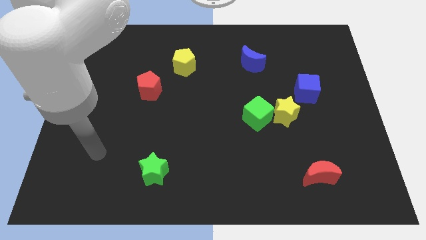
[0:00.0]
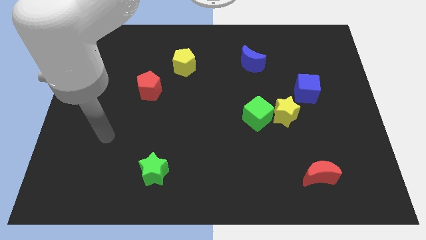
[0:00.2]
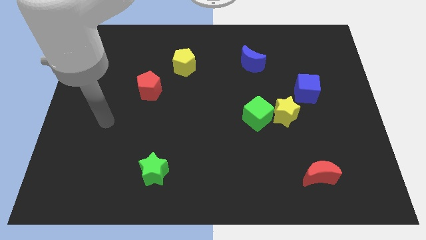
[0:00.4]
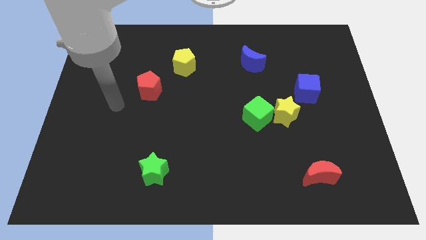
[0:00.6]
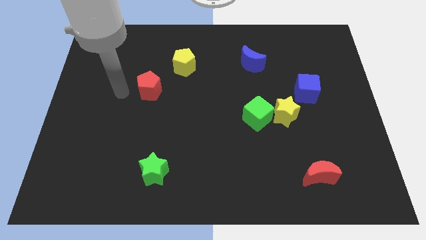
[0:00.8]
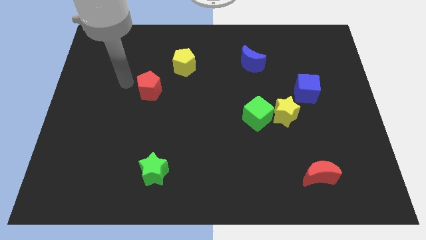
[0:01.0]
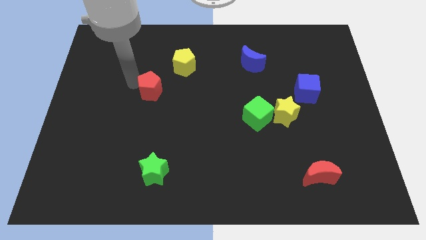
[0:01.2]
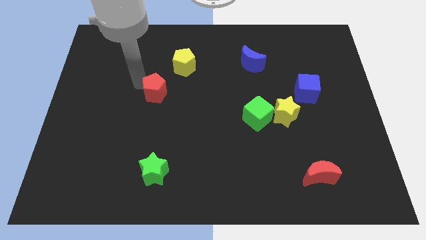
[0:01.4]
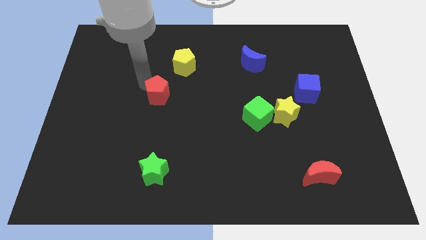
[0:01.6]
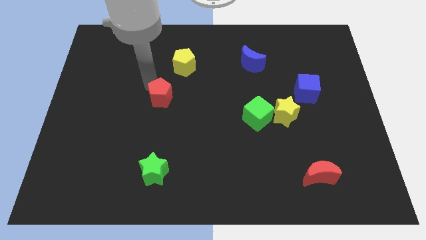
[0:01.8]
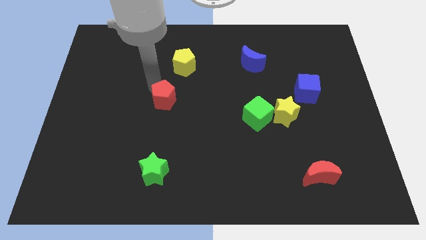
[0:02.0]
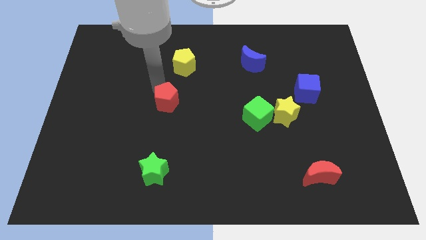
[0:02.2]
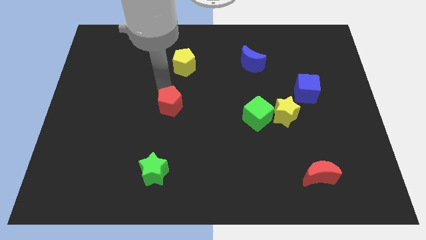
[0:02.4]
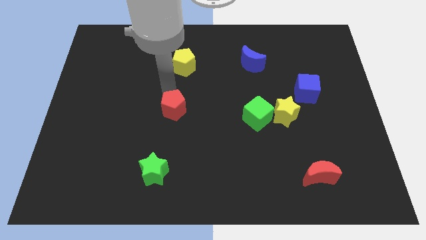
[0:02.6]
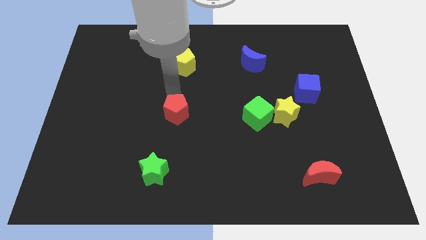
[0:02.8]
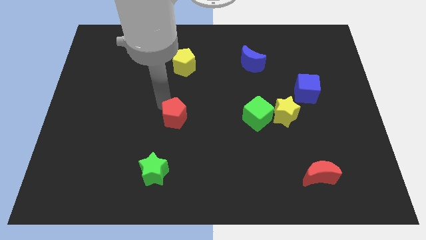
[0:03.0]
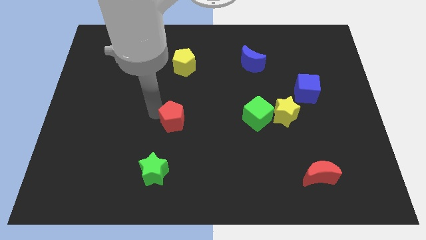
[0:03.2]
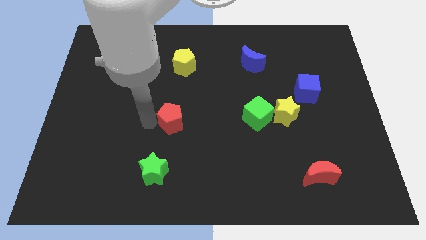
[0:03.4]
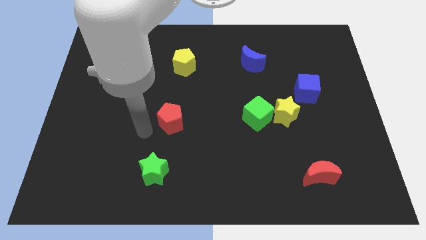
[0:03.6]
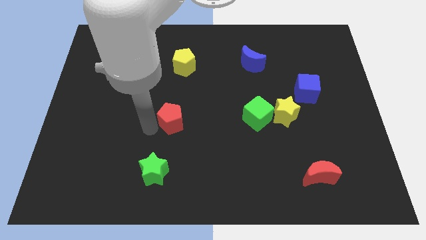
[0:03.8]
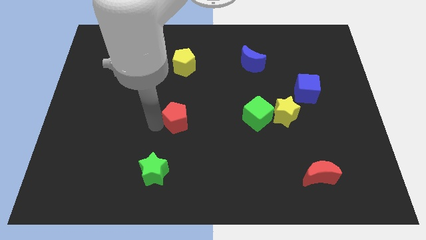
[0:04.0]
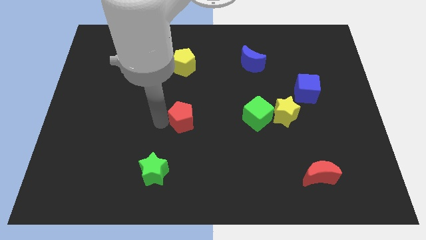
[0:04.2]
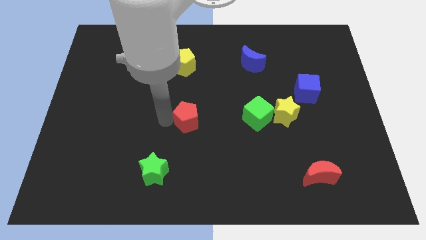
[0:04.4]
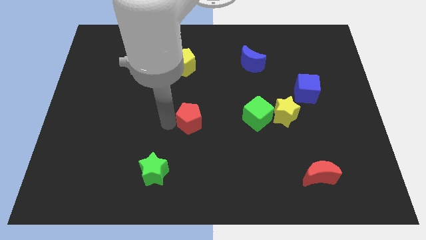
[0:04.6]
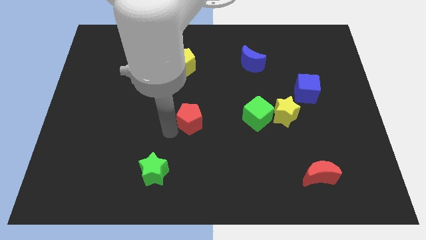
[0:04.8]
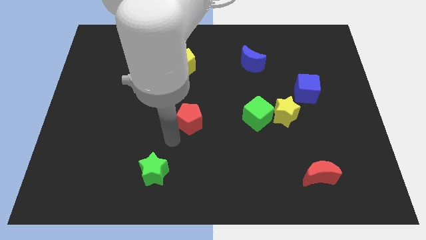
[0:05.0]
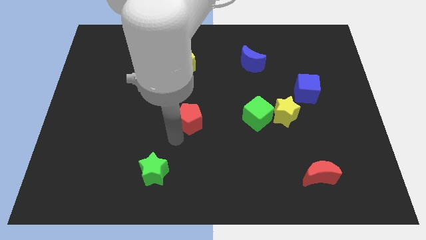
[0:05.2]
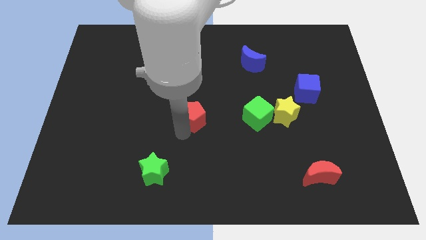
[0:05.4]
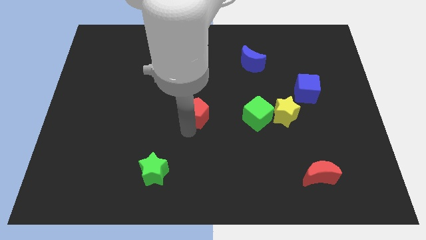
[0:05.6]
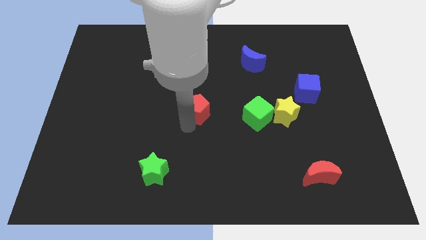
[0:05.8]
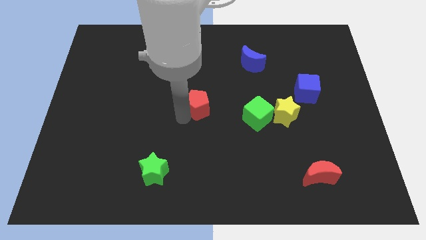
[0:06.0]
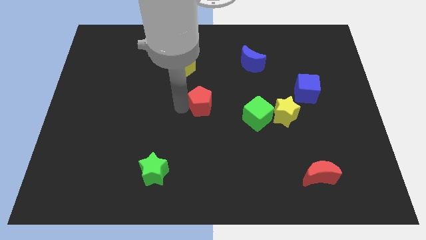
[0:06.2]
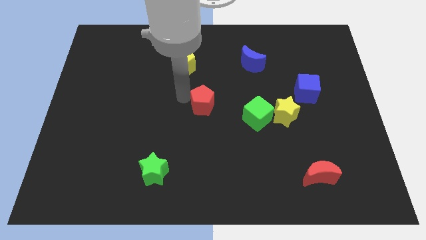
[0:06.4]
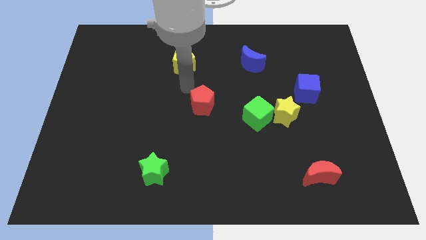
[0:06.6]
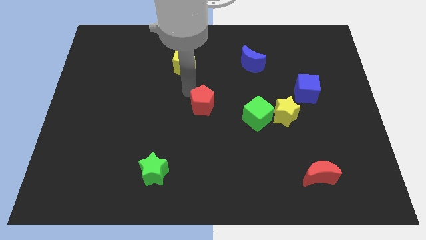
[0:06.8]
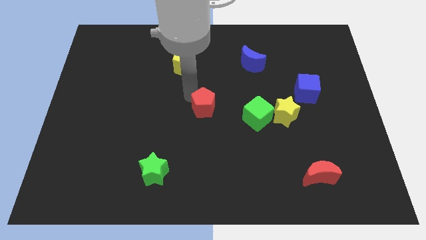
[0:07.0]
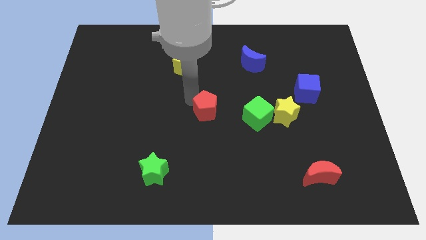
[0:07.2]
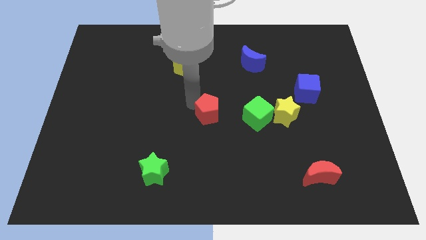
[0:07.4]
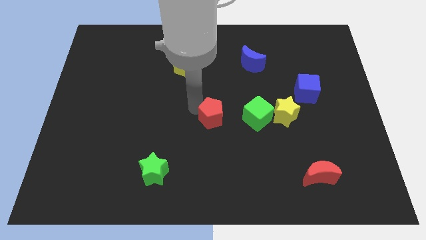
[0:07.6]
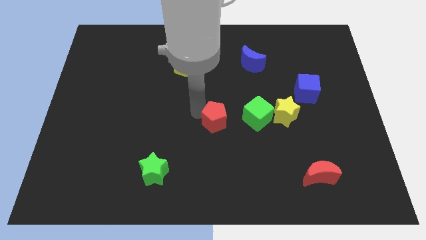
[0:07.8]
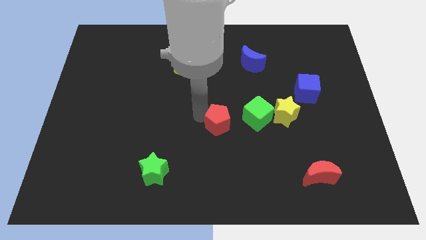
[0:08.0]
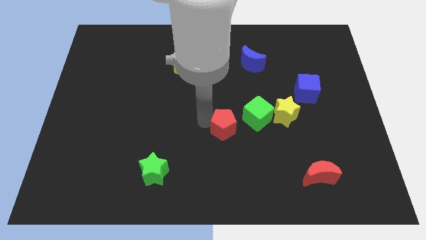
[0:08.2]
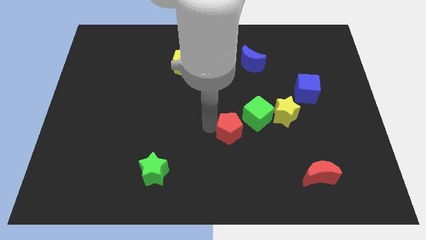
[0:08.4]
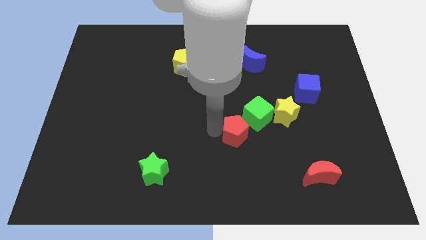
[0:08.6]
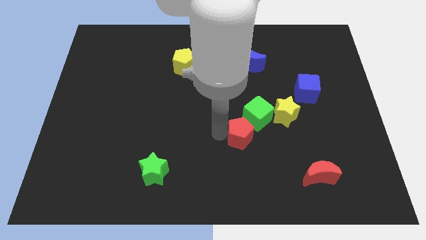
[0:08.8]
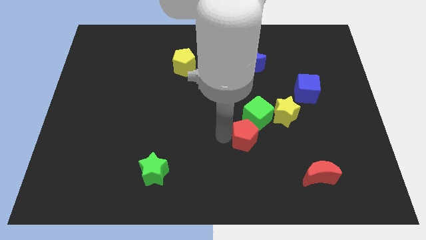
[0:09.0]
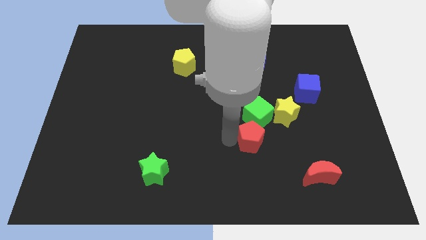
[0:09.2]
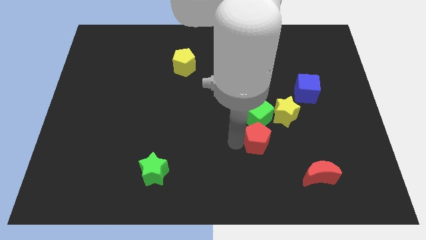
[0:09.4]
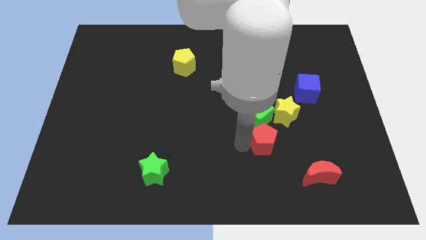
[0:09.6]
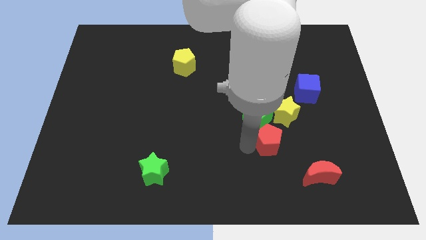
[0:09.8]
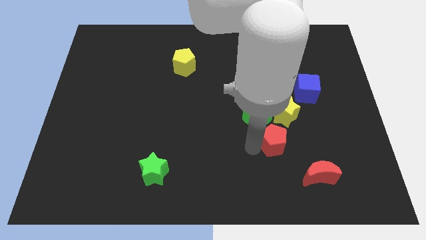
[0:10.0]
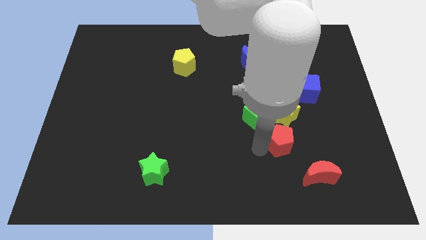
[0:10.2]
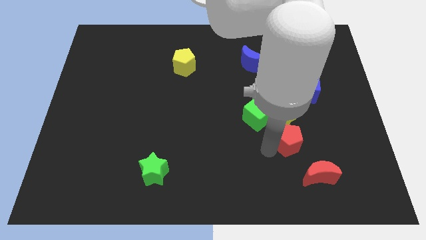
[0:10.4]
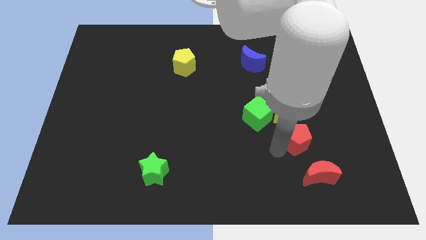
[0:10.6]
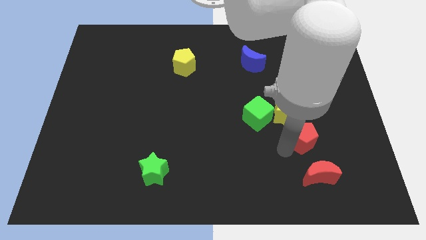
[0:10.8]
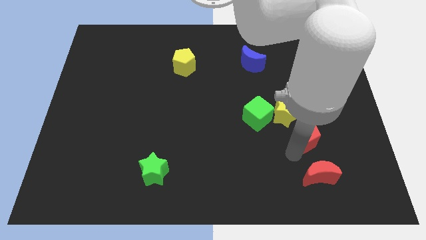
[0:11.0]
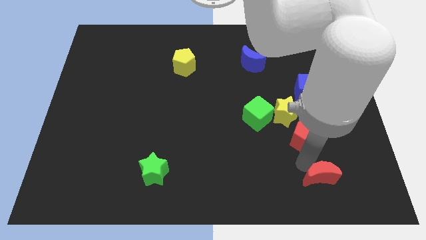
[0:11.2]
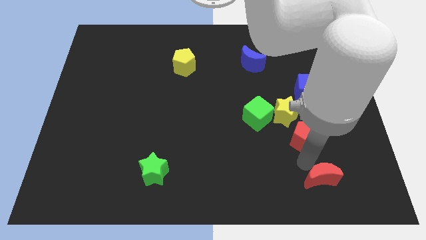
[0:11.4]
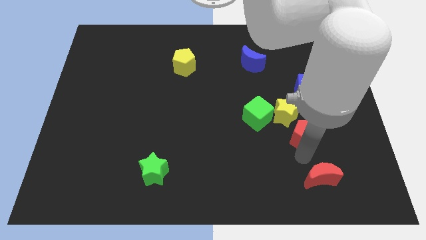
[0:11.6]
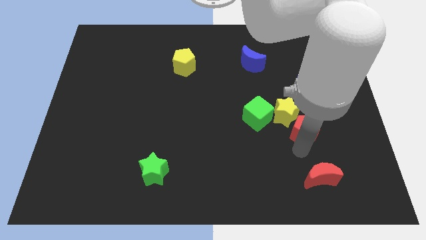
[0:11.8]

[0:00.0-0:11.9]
move the red pentagon to the right side of the green cube

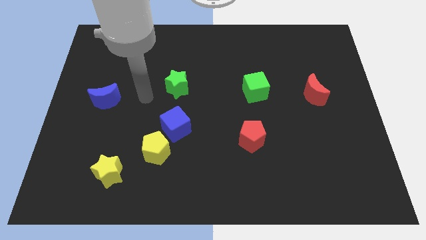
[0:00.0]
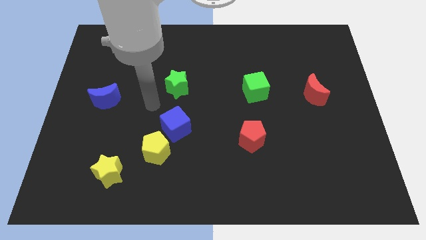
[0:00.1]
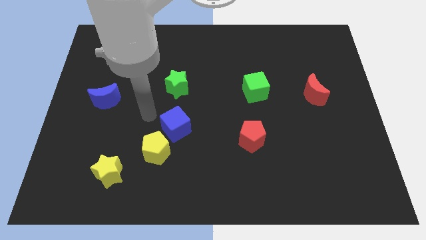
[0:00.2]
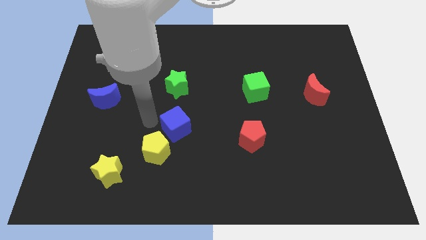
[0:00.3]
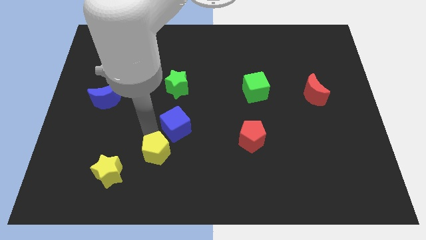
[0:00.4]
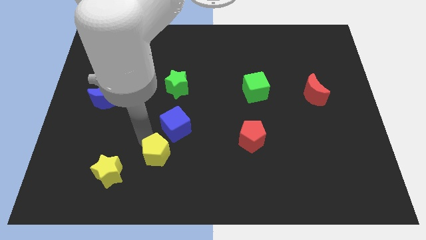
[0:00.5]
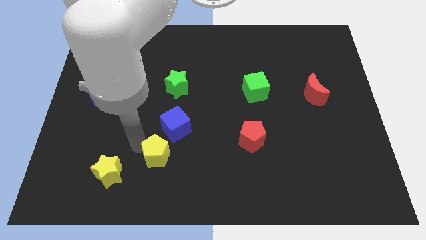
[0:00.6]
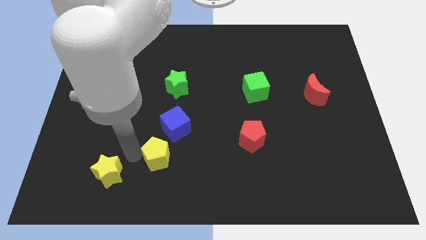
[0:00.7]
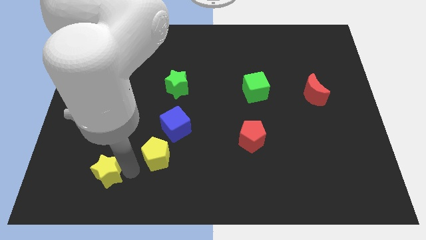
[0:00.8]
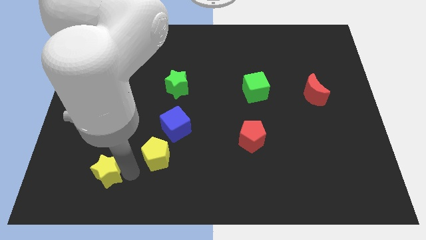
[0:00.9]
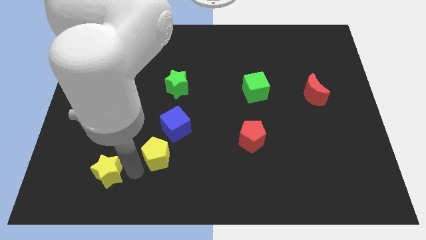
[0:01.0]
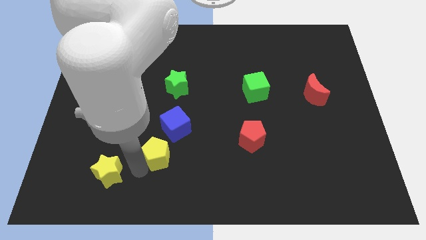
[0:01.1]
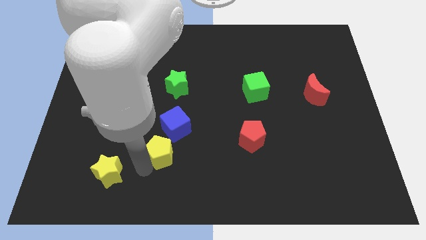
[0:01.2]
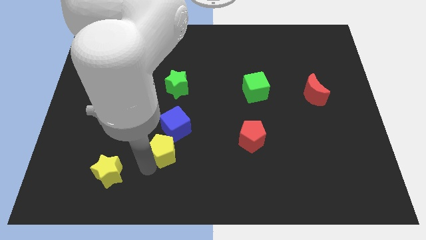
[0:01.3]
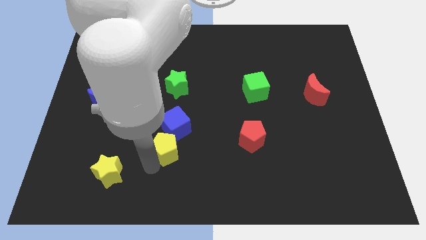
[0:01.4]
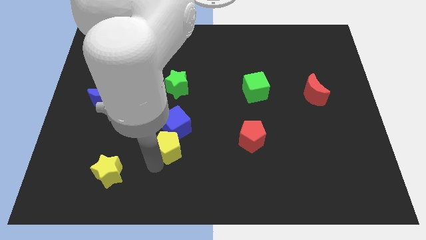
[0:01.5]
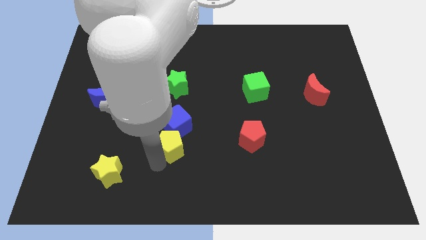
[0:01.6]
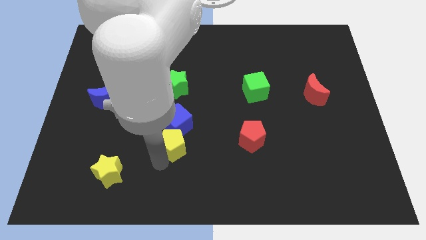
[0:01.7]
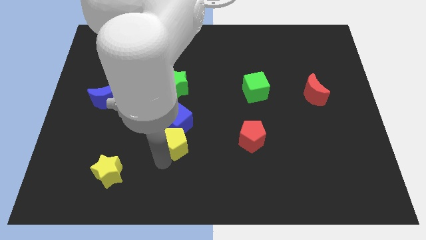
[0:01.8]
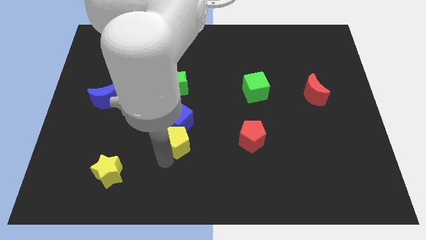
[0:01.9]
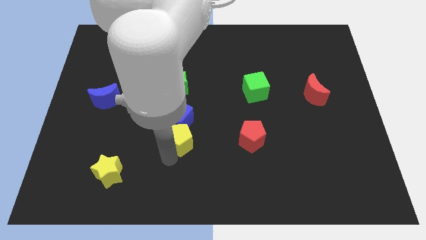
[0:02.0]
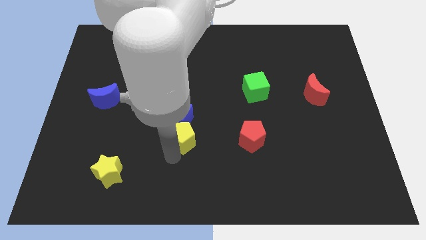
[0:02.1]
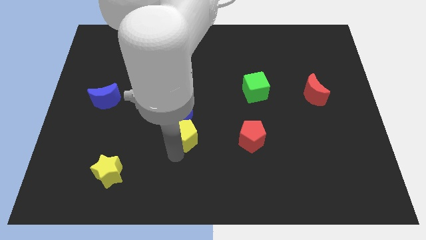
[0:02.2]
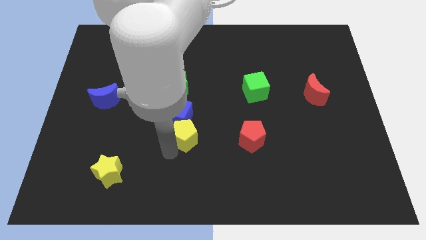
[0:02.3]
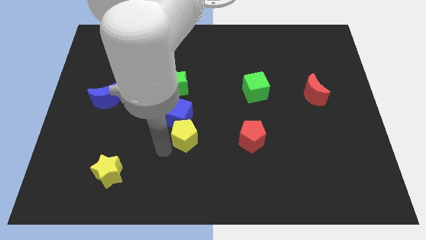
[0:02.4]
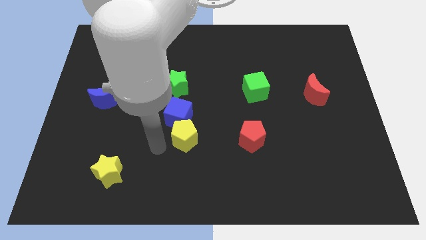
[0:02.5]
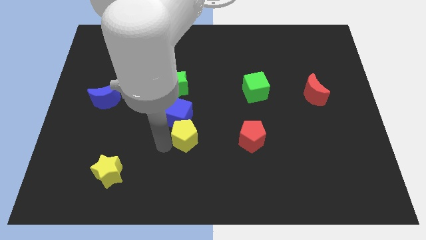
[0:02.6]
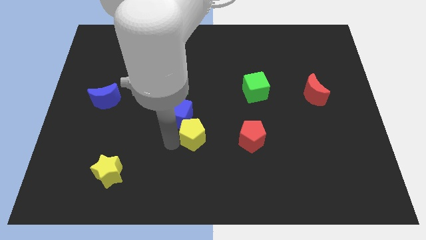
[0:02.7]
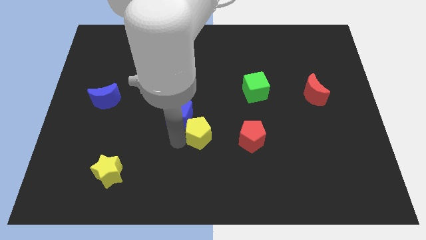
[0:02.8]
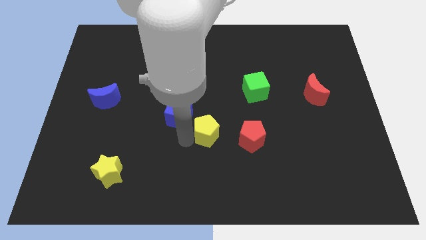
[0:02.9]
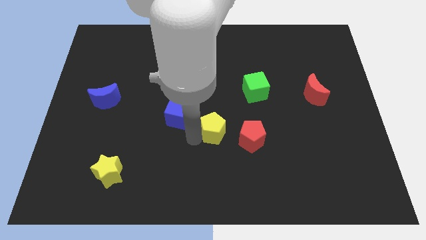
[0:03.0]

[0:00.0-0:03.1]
slide the yellow pentagon diagonally up and to the left of the red pentagon
